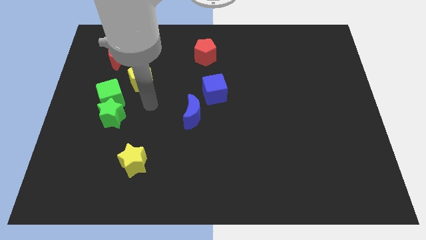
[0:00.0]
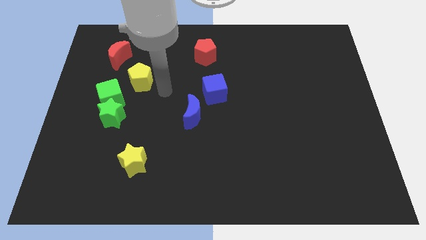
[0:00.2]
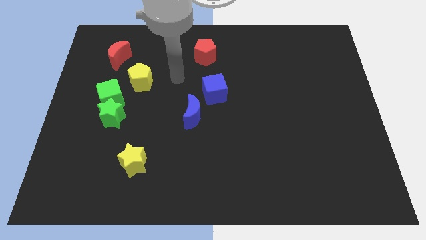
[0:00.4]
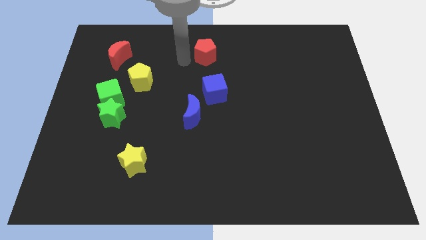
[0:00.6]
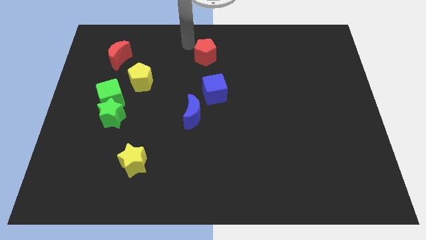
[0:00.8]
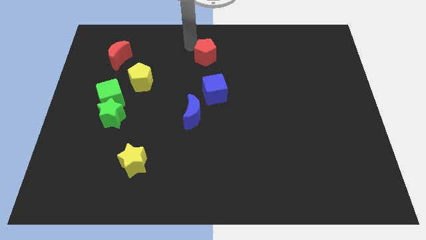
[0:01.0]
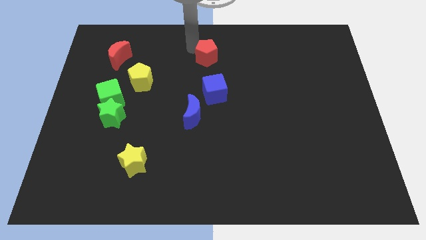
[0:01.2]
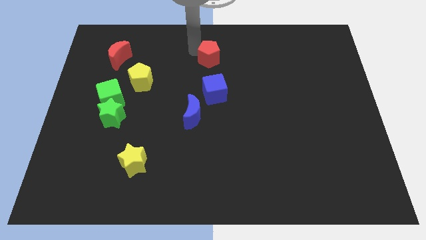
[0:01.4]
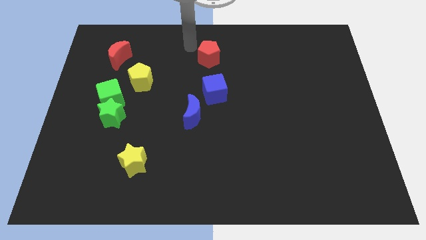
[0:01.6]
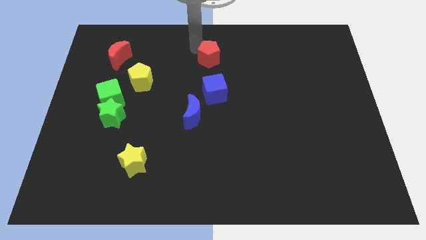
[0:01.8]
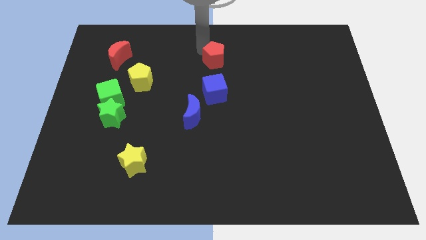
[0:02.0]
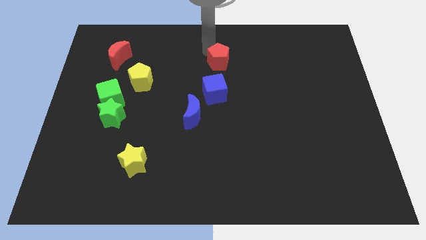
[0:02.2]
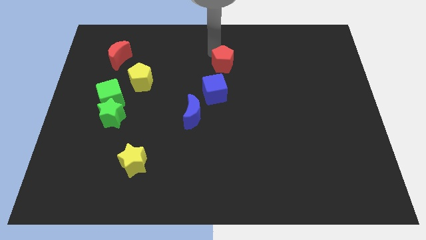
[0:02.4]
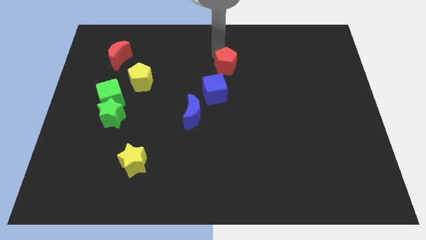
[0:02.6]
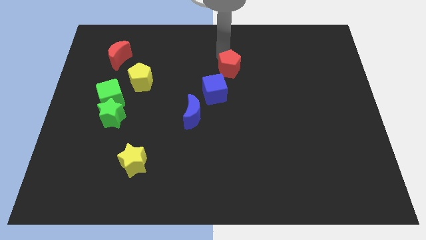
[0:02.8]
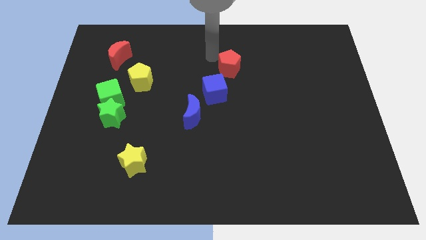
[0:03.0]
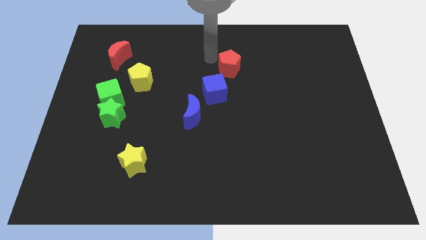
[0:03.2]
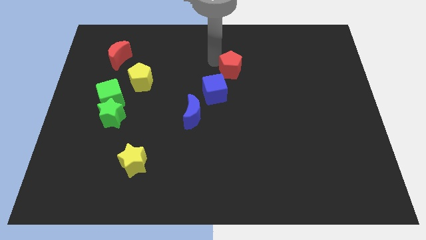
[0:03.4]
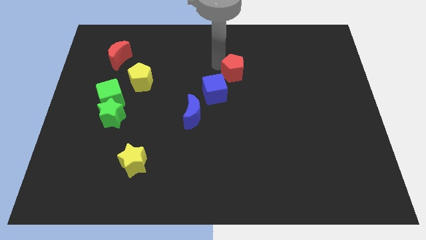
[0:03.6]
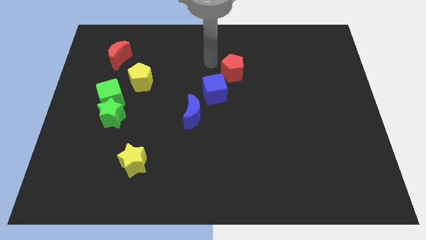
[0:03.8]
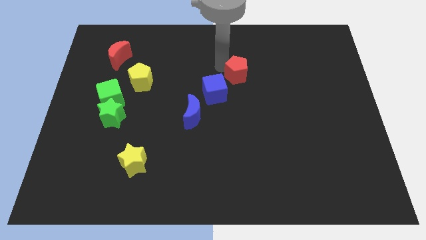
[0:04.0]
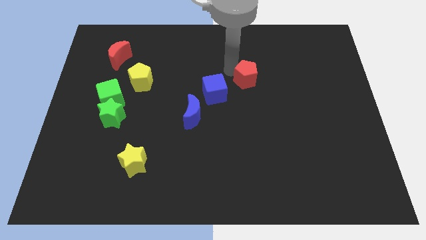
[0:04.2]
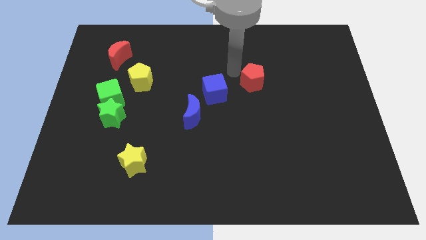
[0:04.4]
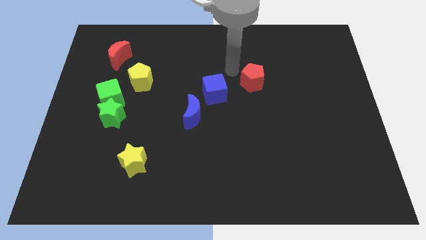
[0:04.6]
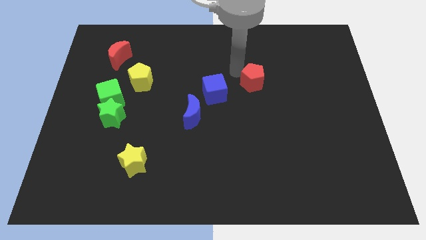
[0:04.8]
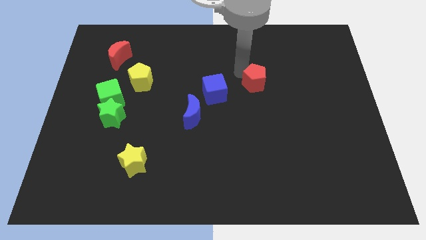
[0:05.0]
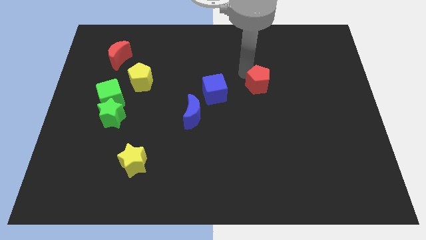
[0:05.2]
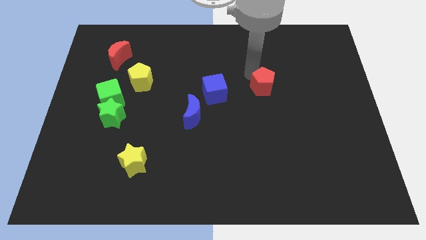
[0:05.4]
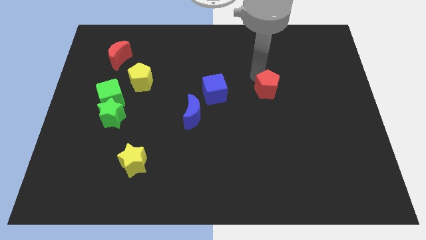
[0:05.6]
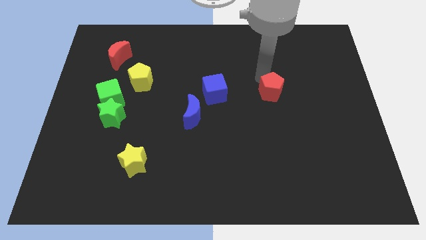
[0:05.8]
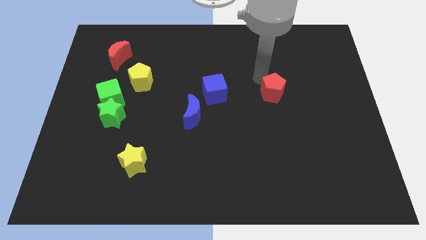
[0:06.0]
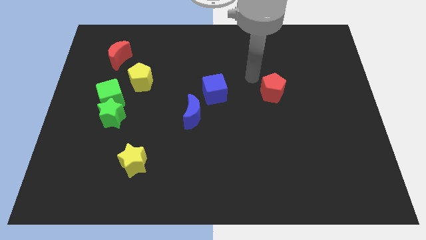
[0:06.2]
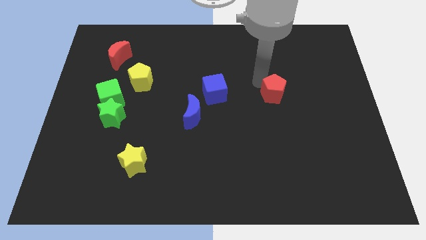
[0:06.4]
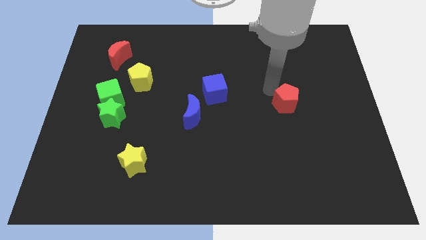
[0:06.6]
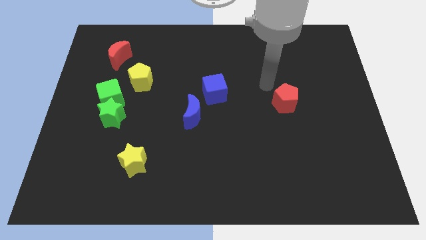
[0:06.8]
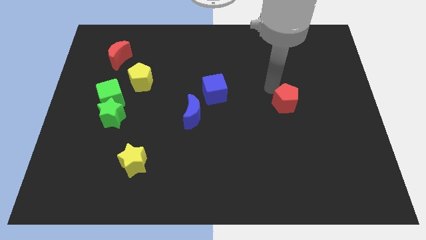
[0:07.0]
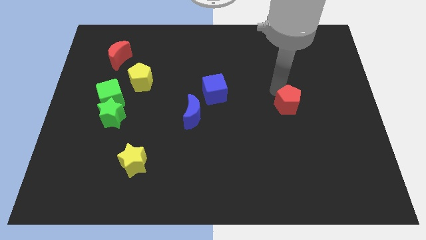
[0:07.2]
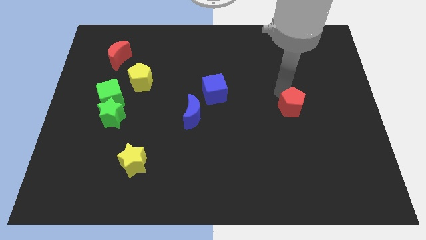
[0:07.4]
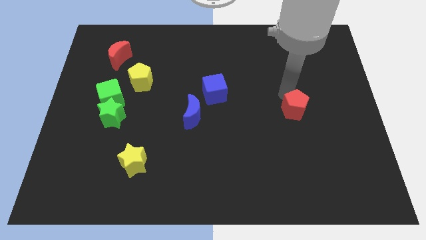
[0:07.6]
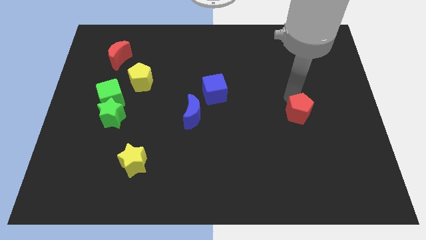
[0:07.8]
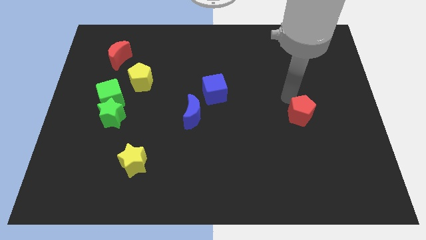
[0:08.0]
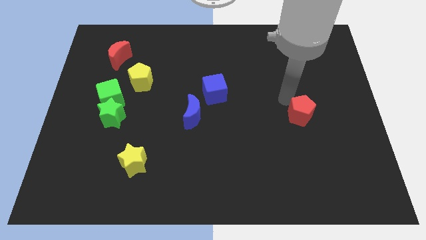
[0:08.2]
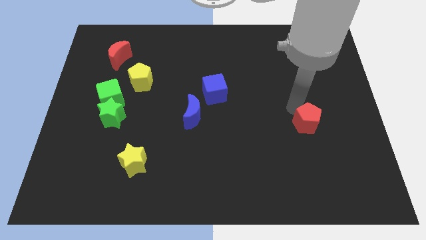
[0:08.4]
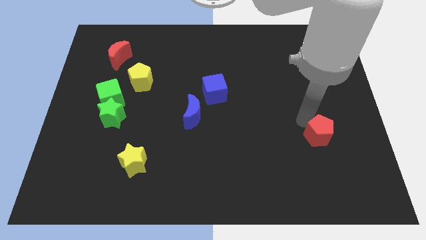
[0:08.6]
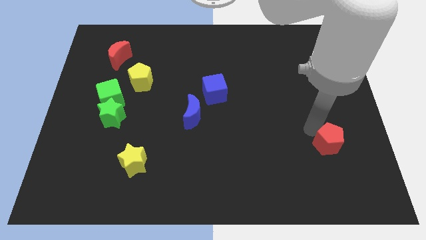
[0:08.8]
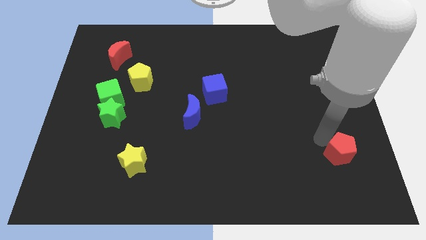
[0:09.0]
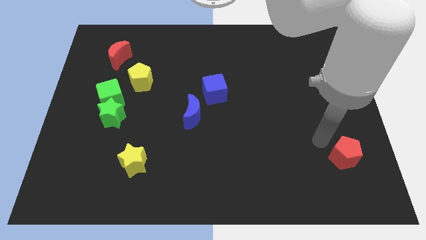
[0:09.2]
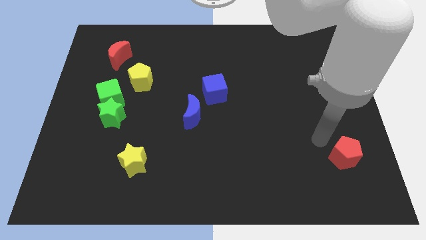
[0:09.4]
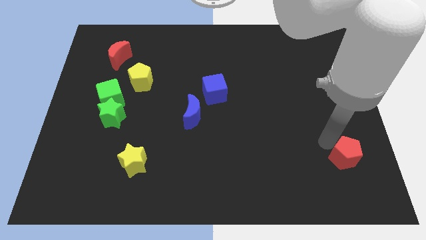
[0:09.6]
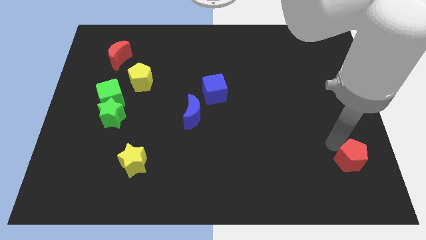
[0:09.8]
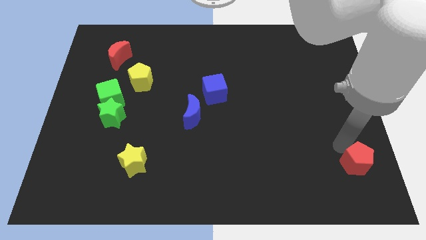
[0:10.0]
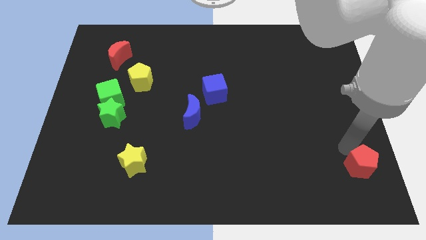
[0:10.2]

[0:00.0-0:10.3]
move the red pentagon to the bottom right of the board
